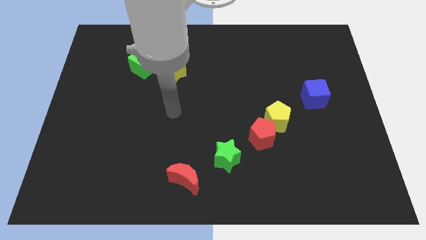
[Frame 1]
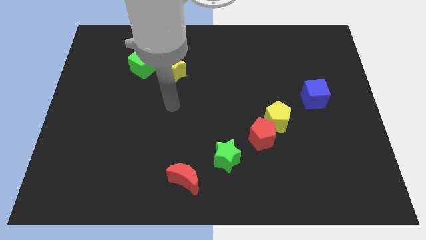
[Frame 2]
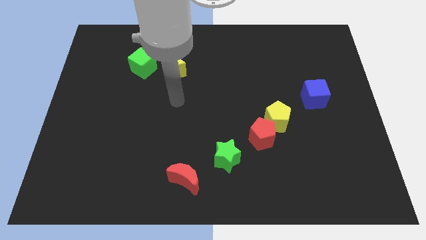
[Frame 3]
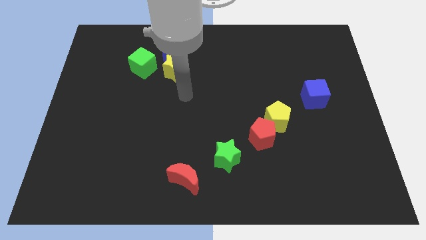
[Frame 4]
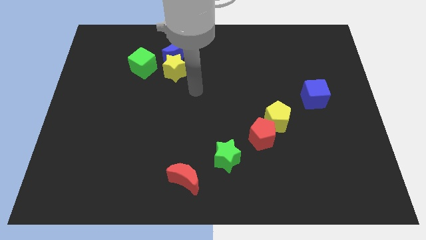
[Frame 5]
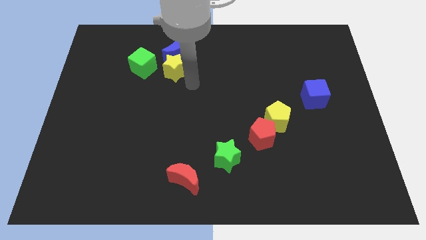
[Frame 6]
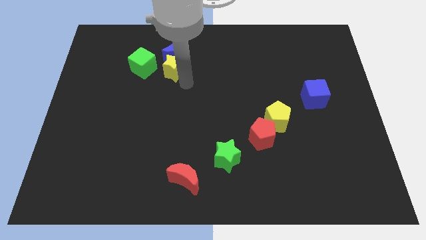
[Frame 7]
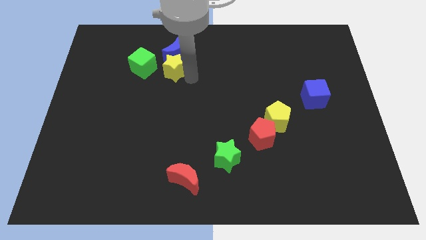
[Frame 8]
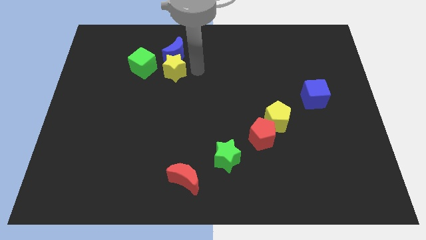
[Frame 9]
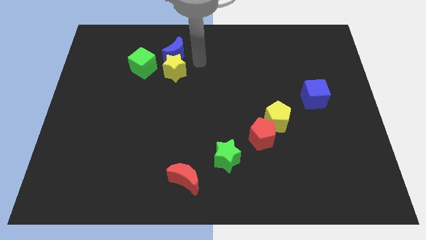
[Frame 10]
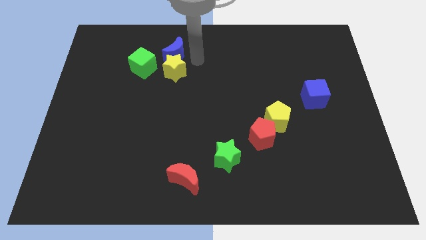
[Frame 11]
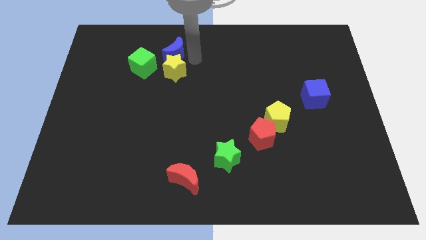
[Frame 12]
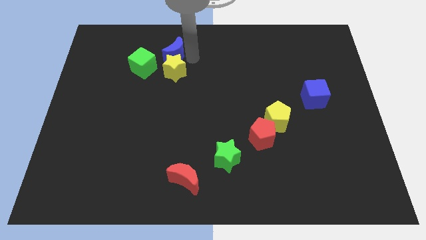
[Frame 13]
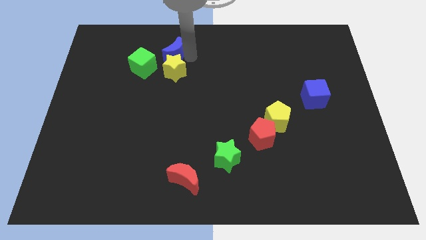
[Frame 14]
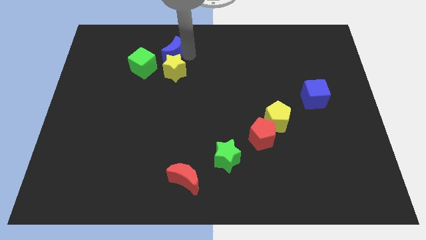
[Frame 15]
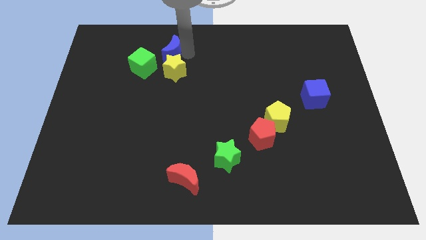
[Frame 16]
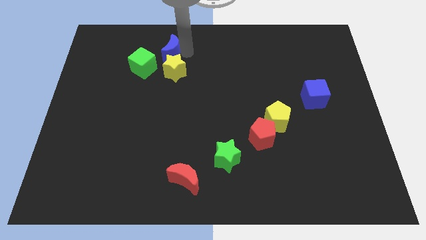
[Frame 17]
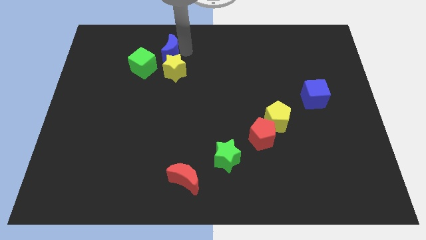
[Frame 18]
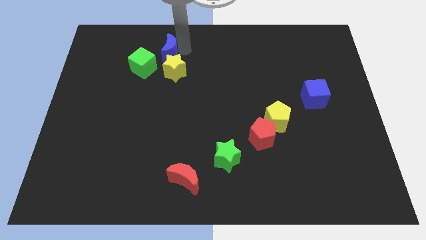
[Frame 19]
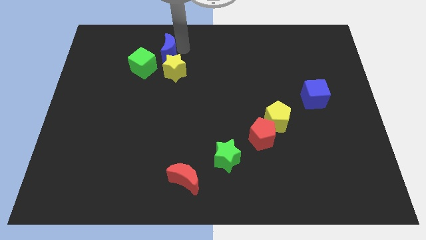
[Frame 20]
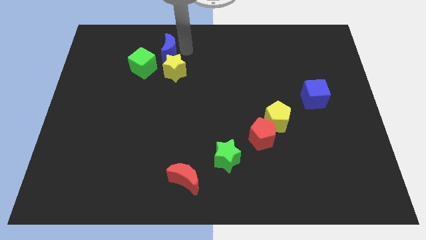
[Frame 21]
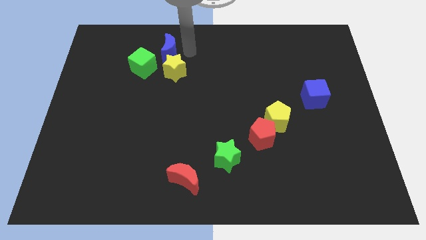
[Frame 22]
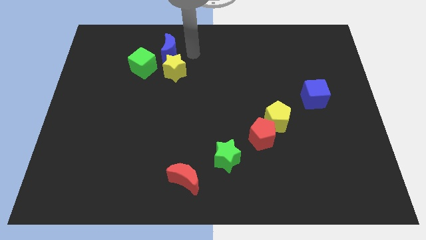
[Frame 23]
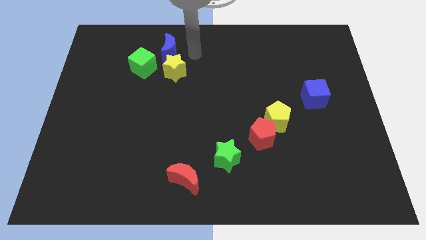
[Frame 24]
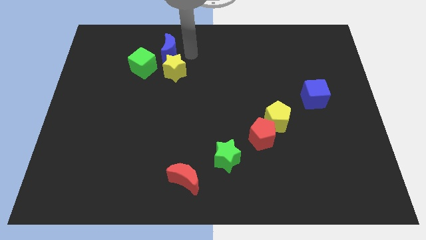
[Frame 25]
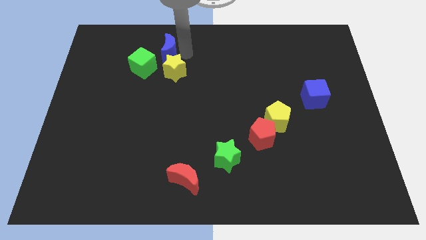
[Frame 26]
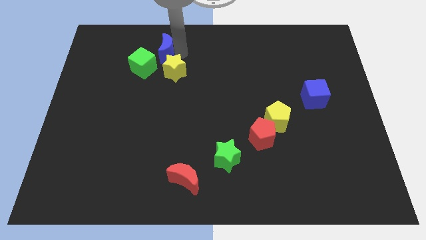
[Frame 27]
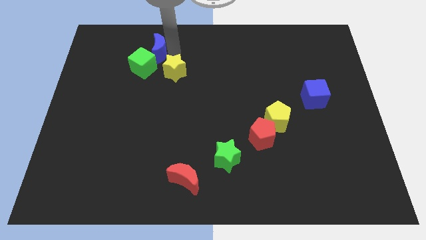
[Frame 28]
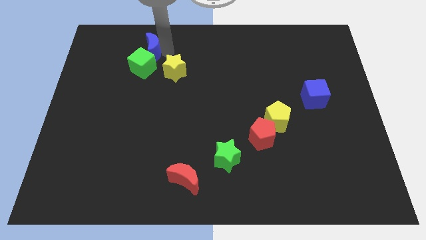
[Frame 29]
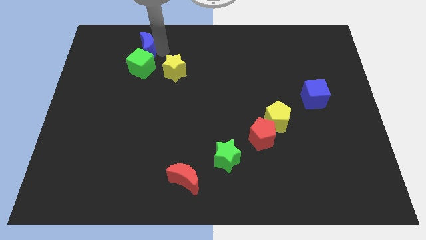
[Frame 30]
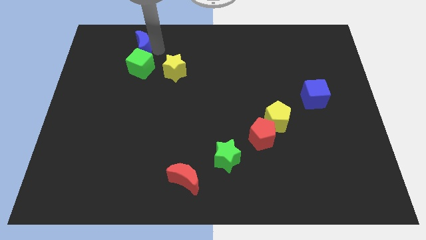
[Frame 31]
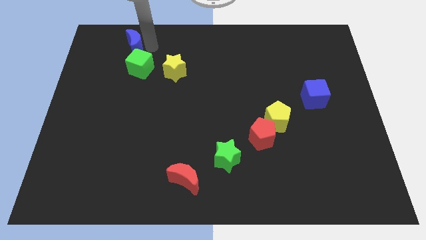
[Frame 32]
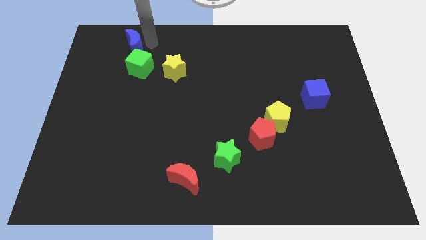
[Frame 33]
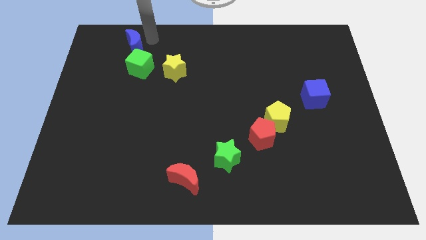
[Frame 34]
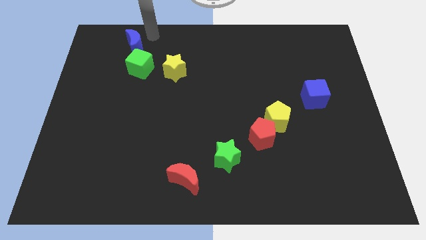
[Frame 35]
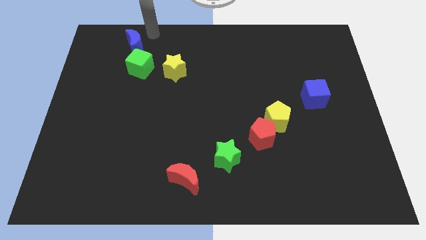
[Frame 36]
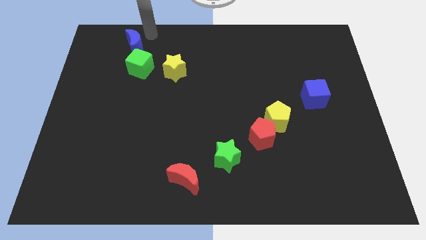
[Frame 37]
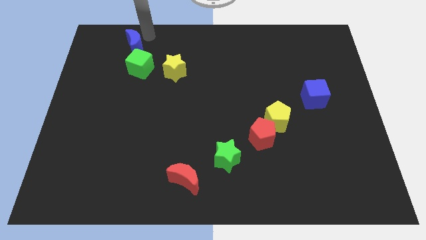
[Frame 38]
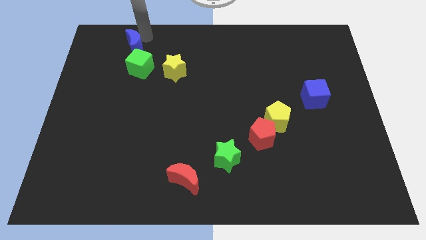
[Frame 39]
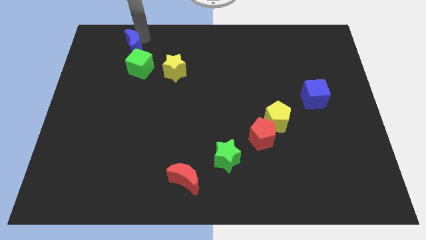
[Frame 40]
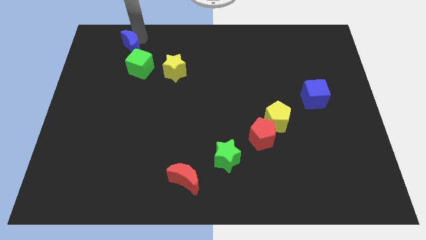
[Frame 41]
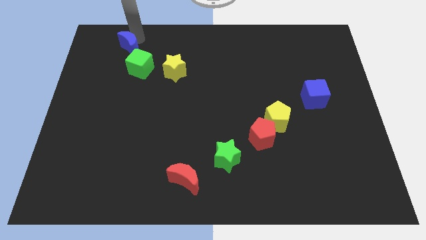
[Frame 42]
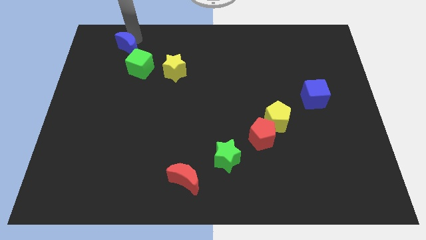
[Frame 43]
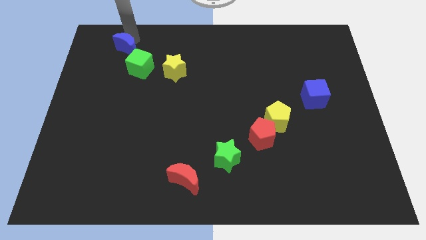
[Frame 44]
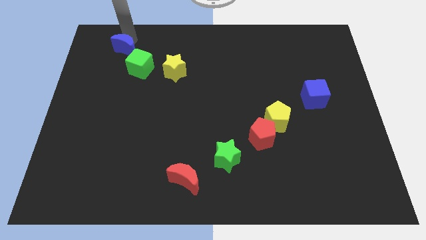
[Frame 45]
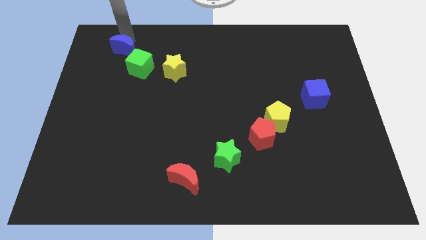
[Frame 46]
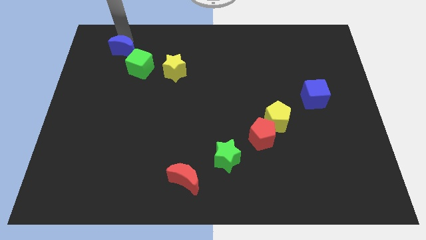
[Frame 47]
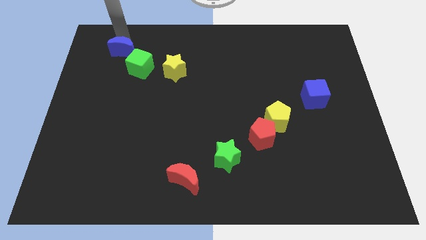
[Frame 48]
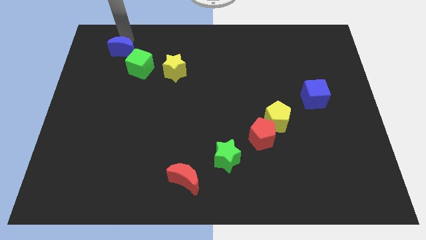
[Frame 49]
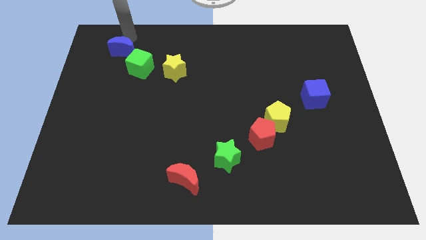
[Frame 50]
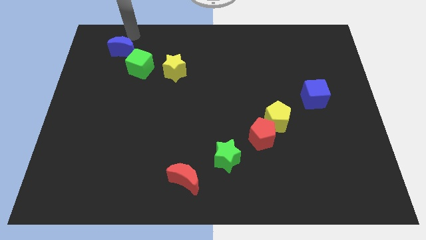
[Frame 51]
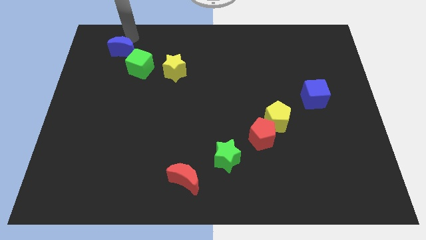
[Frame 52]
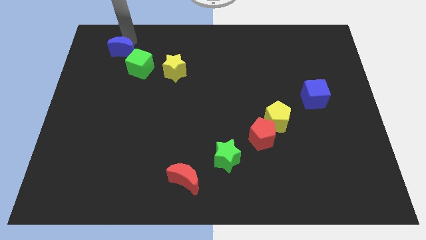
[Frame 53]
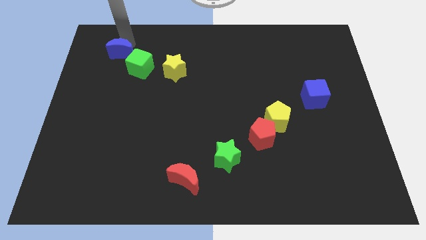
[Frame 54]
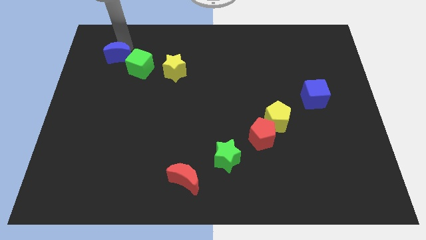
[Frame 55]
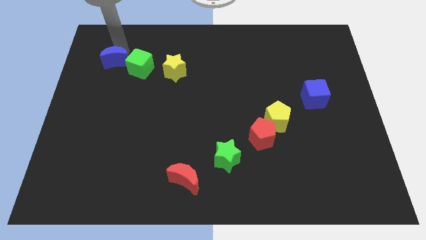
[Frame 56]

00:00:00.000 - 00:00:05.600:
slightly move the blue moon diagonally downwards and left

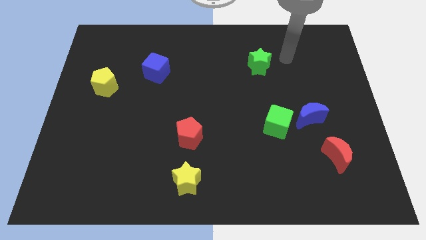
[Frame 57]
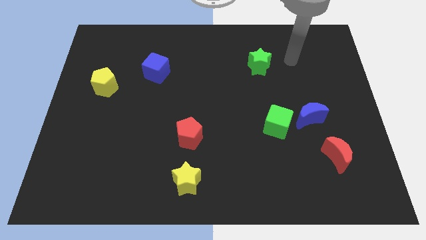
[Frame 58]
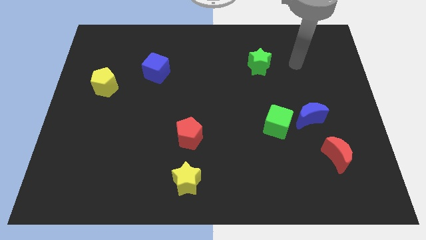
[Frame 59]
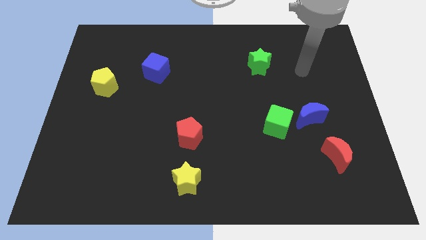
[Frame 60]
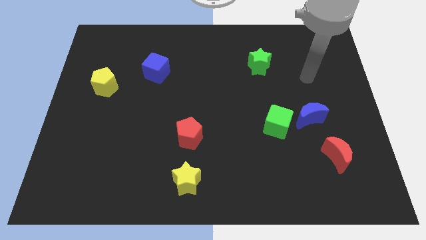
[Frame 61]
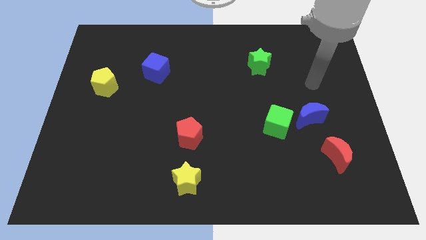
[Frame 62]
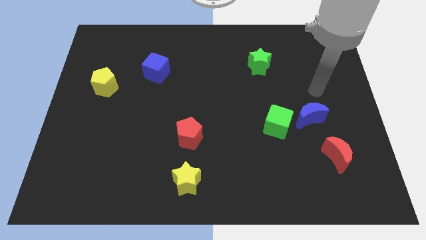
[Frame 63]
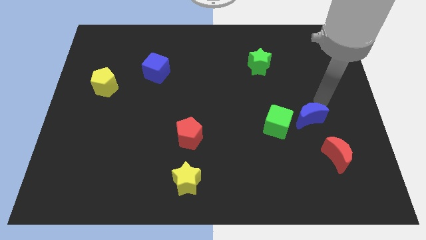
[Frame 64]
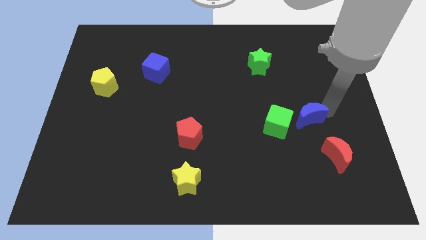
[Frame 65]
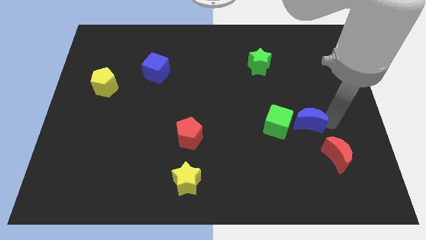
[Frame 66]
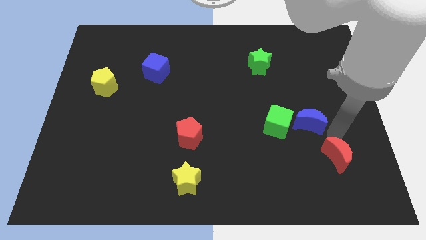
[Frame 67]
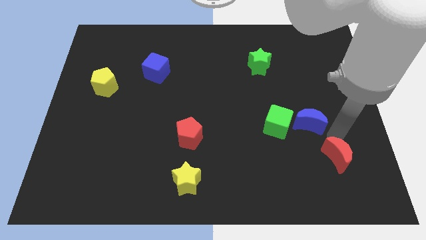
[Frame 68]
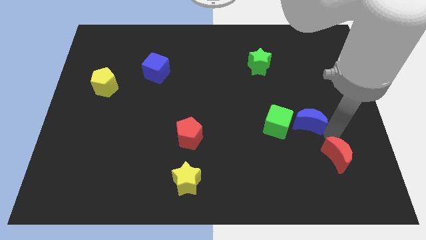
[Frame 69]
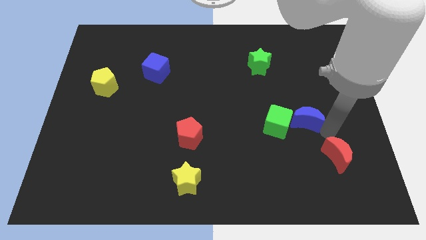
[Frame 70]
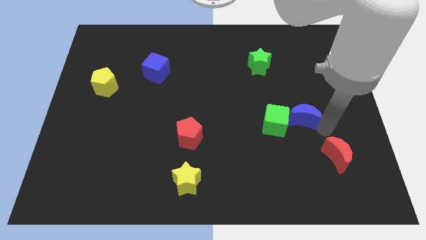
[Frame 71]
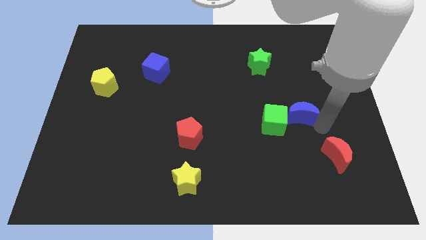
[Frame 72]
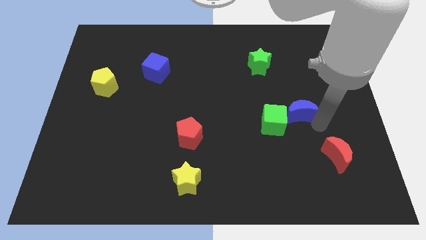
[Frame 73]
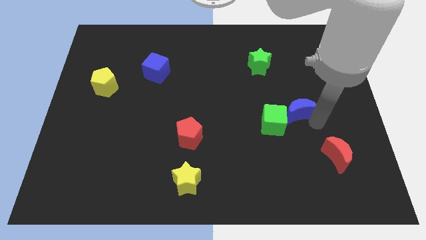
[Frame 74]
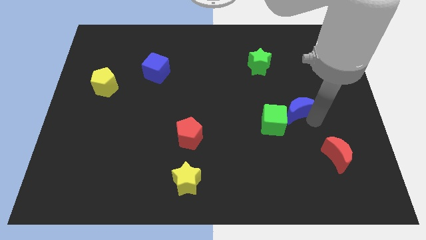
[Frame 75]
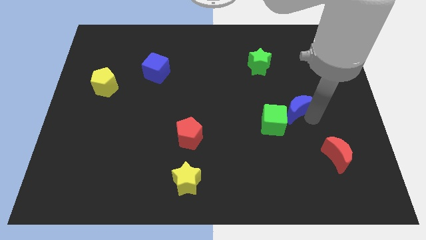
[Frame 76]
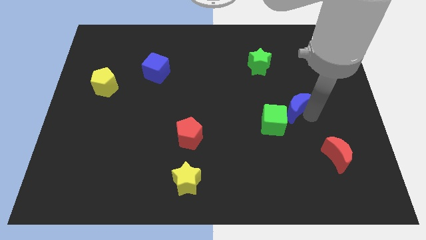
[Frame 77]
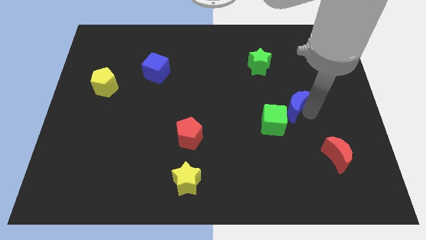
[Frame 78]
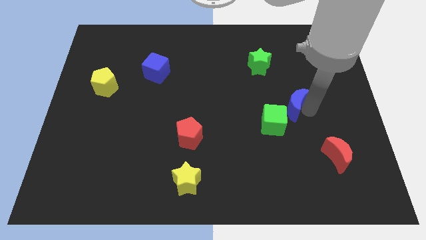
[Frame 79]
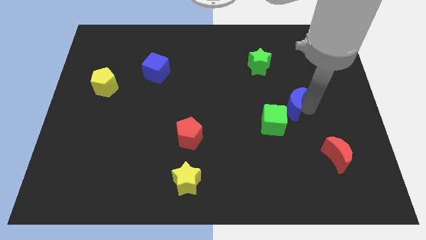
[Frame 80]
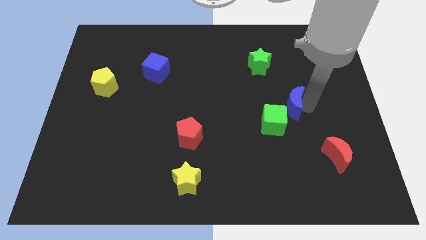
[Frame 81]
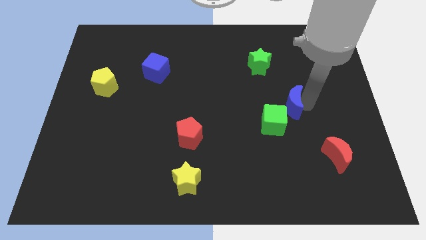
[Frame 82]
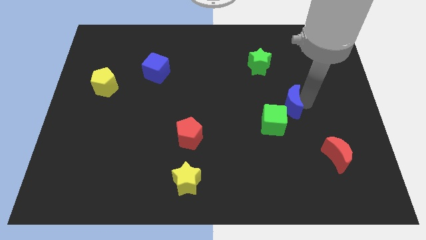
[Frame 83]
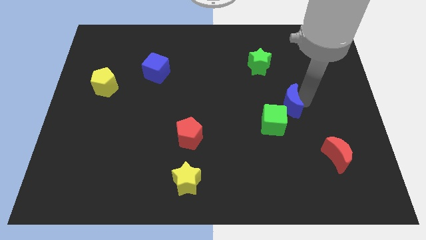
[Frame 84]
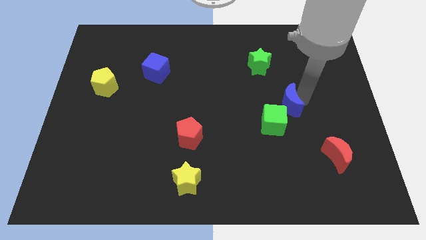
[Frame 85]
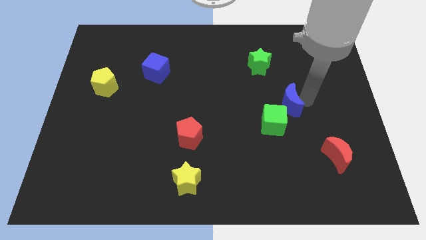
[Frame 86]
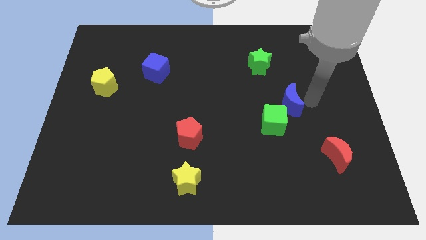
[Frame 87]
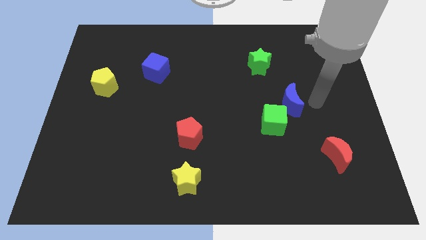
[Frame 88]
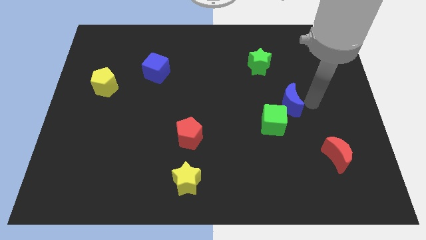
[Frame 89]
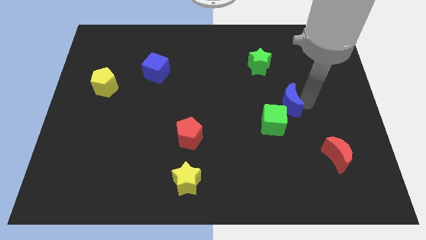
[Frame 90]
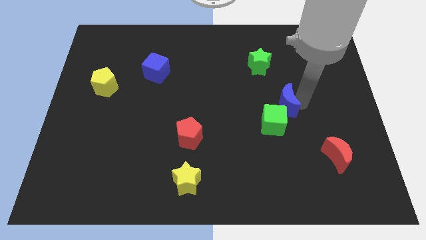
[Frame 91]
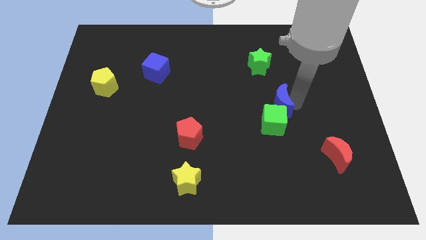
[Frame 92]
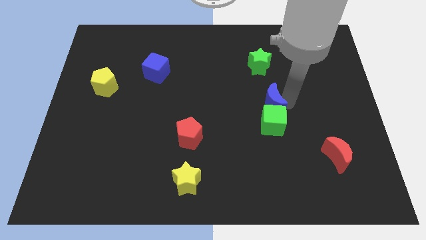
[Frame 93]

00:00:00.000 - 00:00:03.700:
slightly push the blue moon to the left
